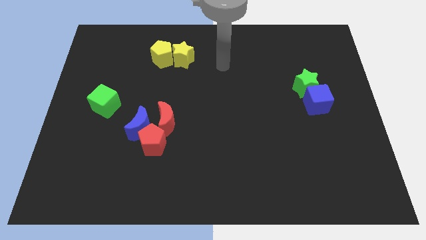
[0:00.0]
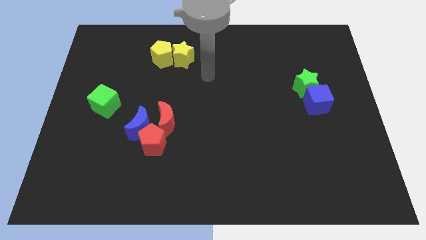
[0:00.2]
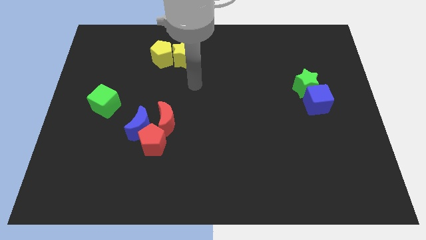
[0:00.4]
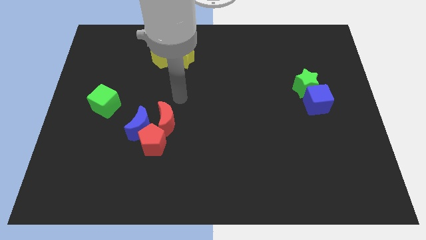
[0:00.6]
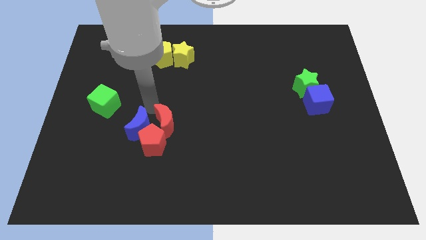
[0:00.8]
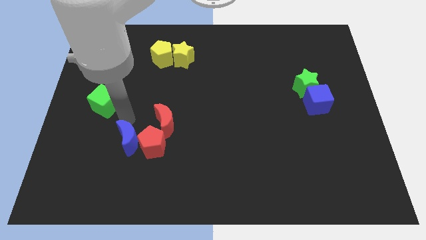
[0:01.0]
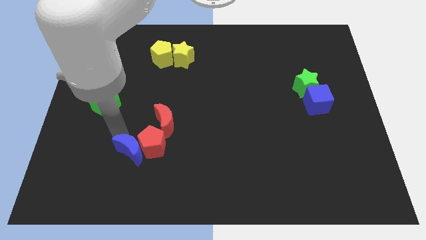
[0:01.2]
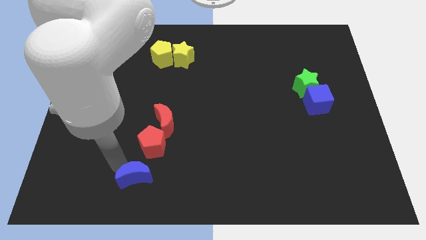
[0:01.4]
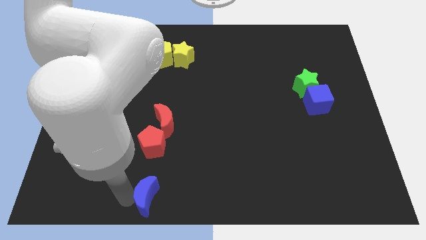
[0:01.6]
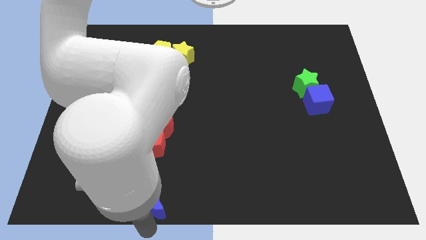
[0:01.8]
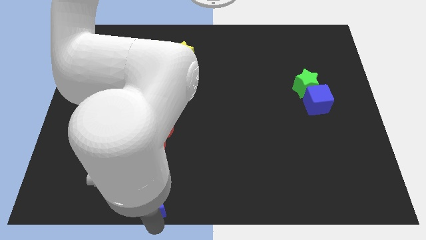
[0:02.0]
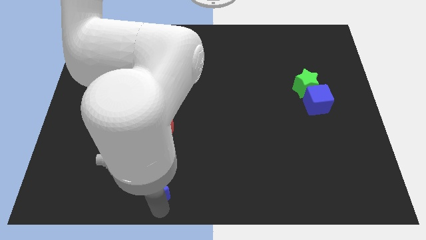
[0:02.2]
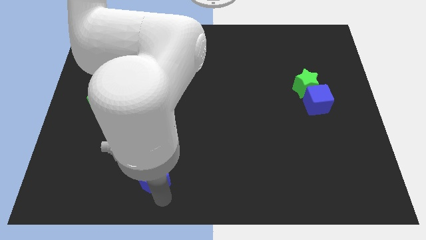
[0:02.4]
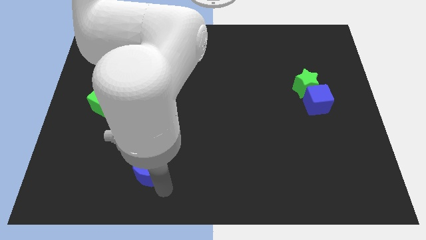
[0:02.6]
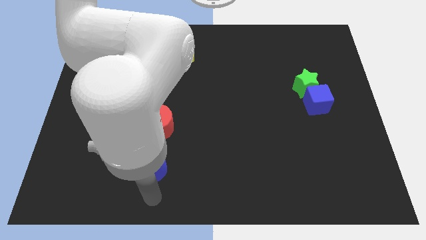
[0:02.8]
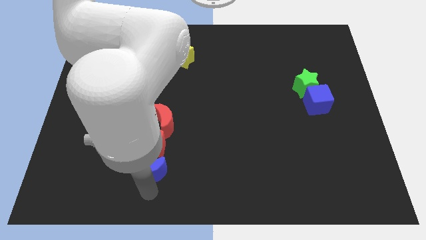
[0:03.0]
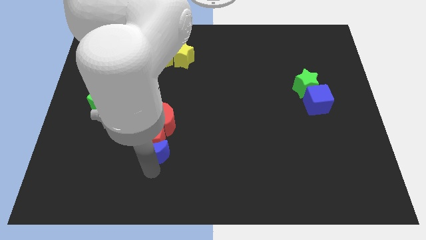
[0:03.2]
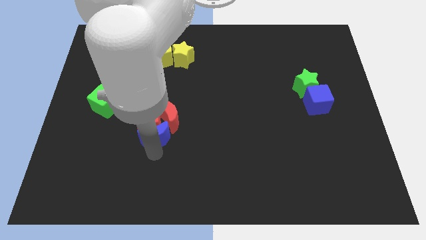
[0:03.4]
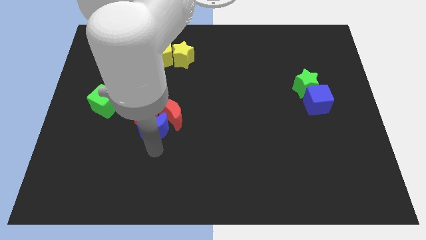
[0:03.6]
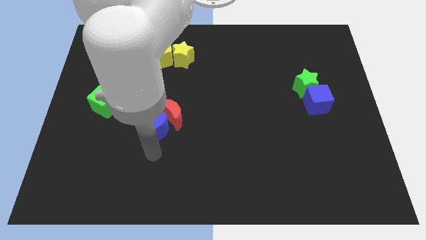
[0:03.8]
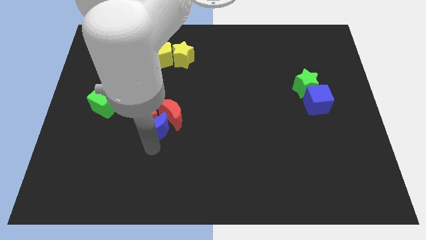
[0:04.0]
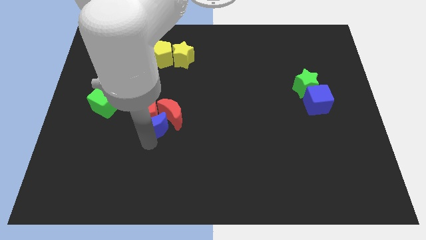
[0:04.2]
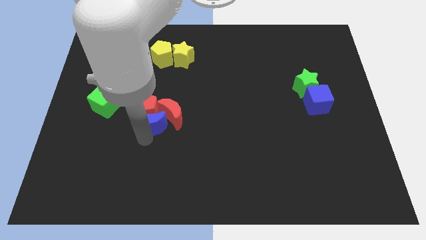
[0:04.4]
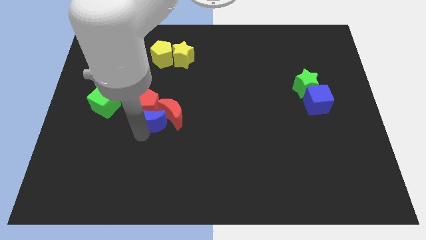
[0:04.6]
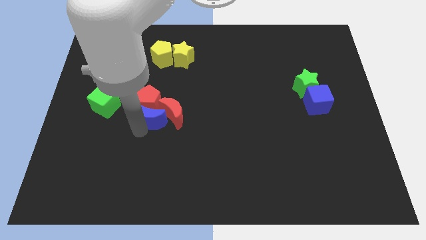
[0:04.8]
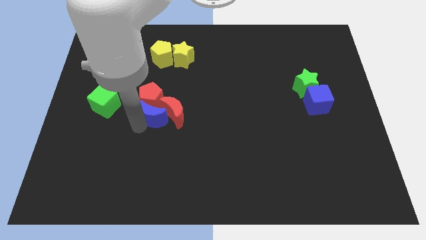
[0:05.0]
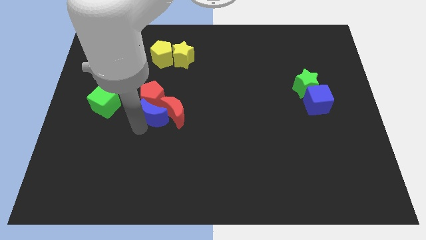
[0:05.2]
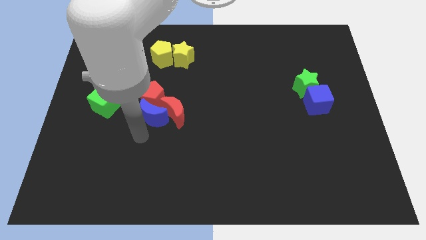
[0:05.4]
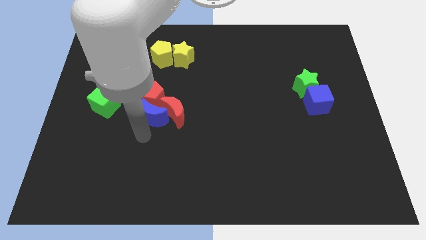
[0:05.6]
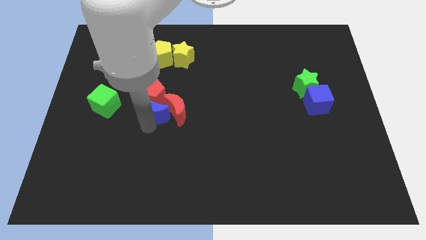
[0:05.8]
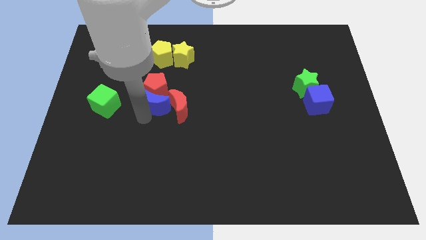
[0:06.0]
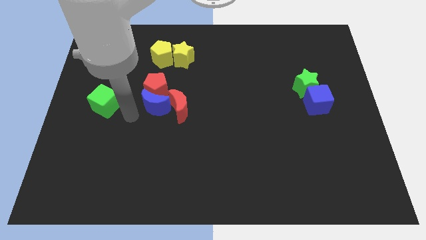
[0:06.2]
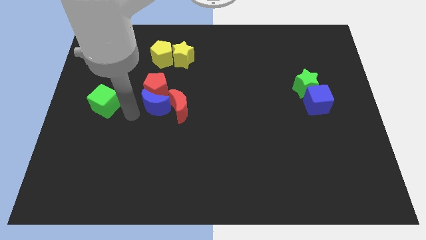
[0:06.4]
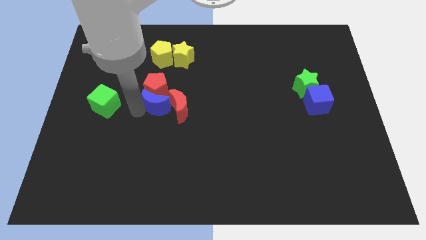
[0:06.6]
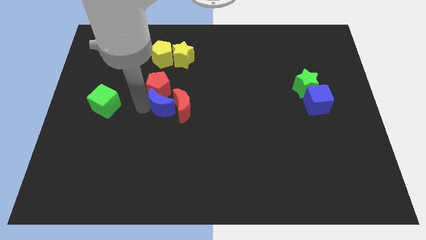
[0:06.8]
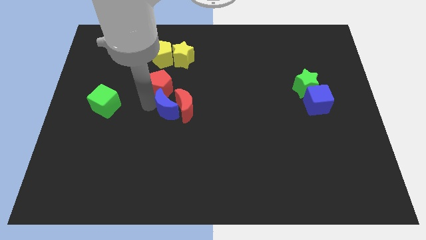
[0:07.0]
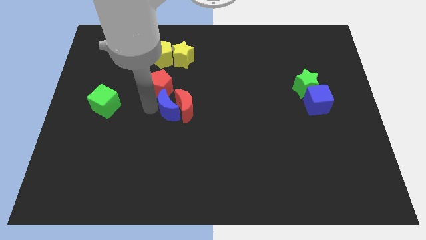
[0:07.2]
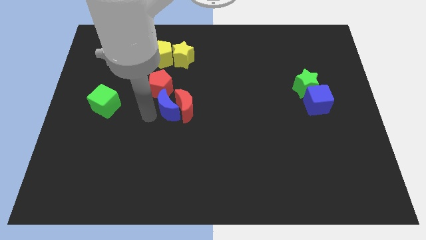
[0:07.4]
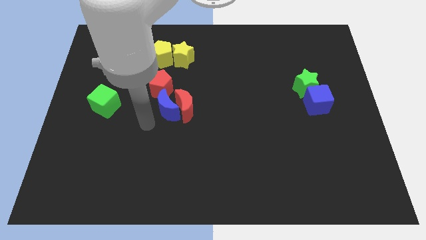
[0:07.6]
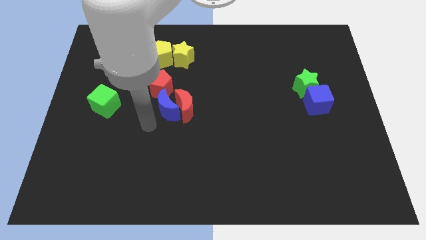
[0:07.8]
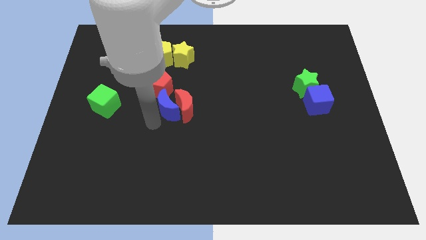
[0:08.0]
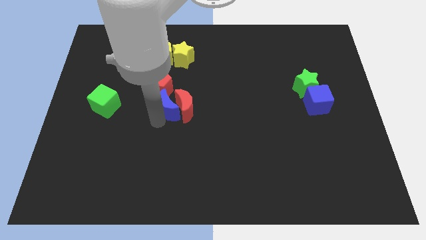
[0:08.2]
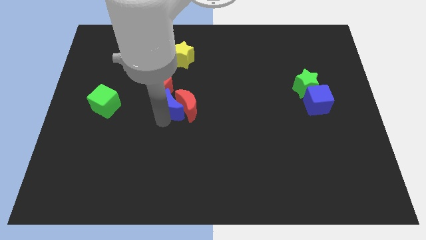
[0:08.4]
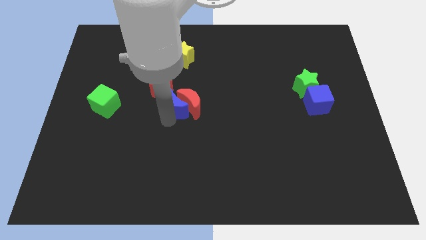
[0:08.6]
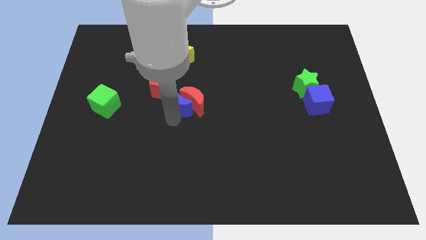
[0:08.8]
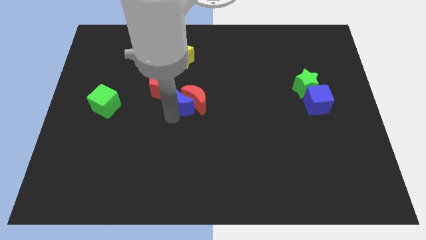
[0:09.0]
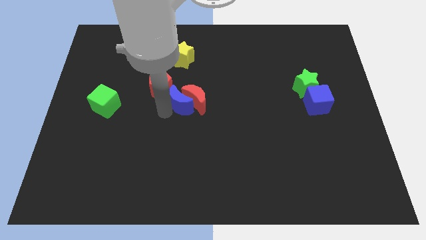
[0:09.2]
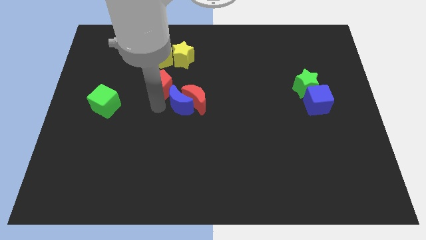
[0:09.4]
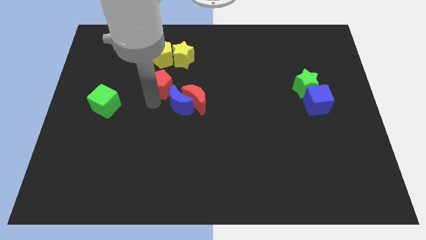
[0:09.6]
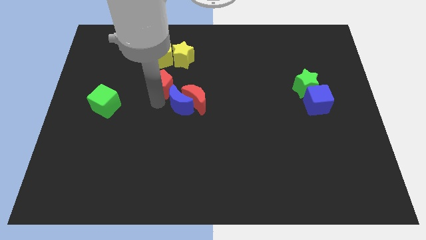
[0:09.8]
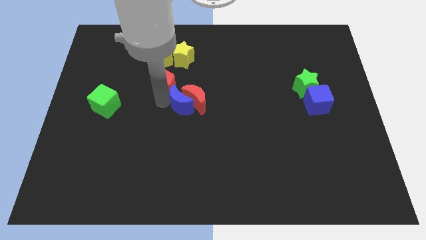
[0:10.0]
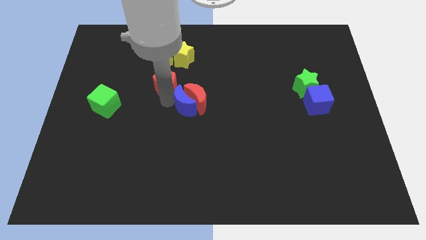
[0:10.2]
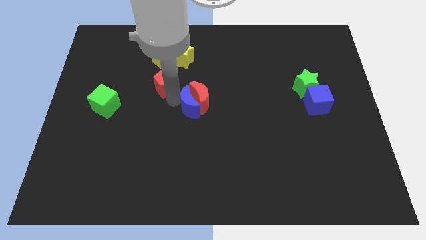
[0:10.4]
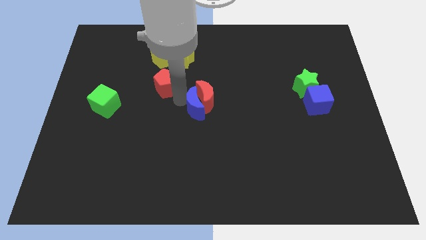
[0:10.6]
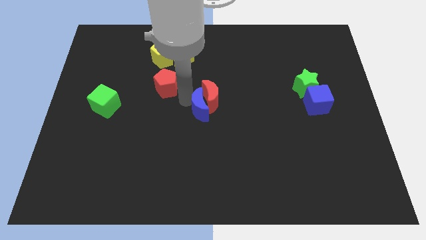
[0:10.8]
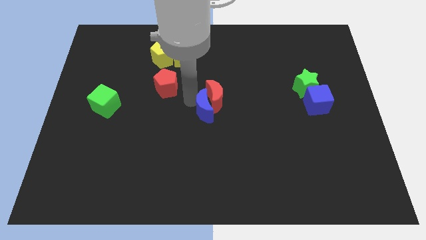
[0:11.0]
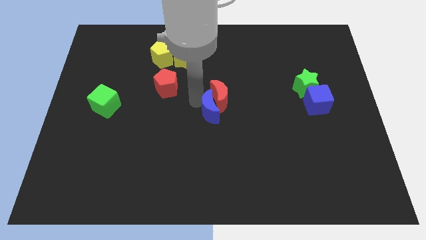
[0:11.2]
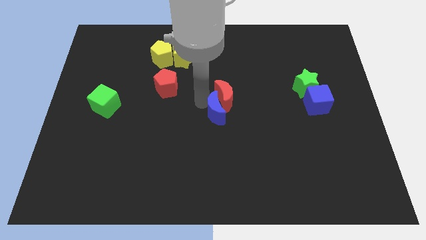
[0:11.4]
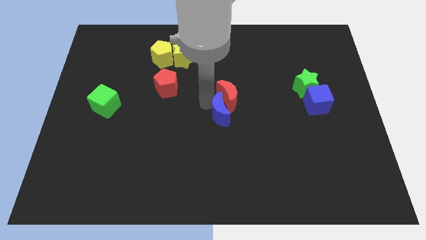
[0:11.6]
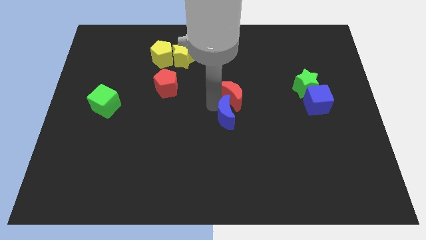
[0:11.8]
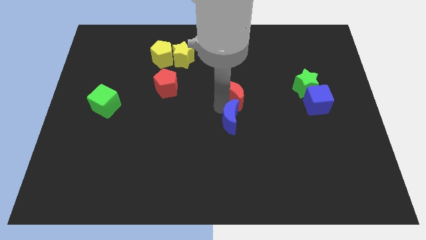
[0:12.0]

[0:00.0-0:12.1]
slide the blue moon to the right

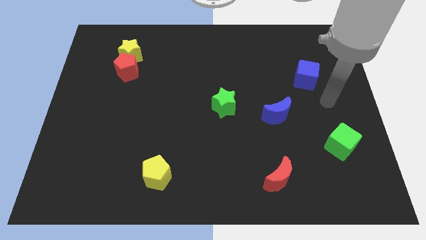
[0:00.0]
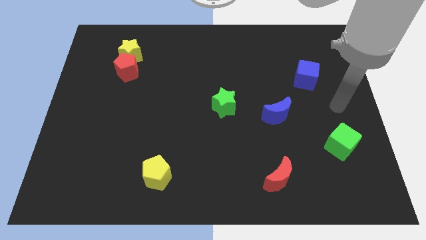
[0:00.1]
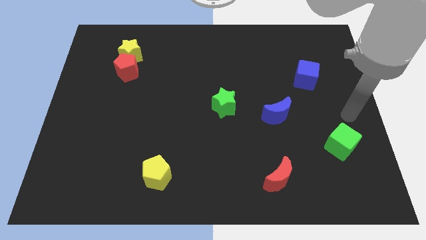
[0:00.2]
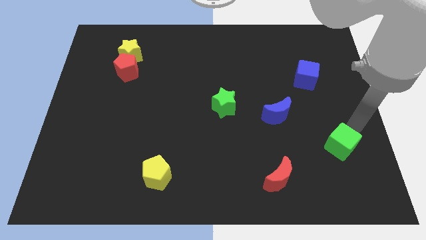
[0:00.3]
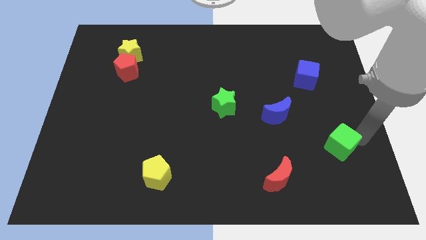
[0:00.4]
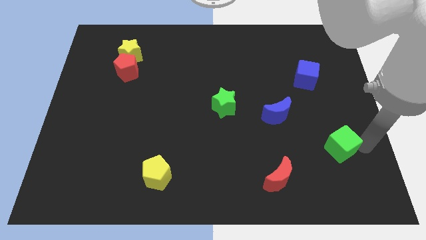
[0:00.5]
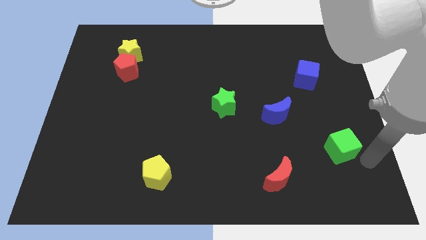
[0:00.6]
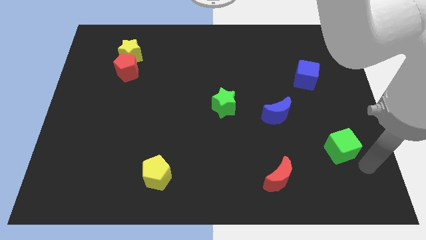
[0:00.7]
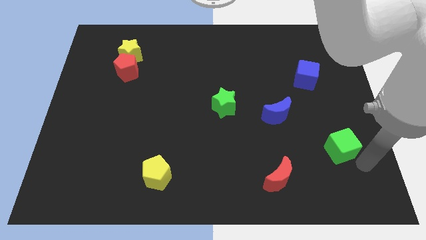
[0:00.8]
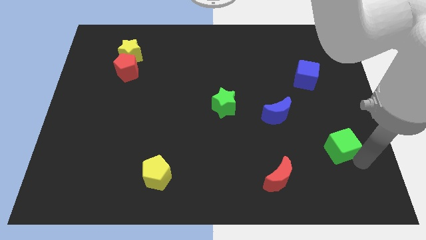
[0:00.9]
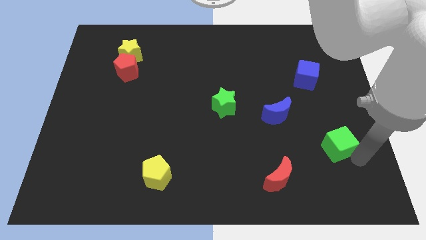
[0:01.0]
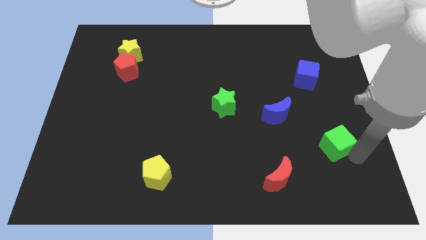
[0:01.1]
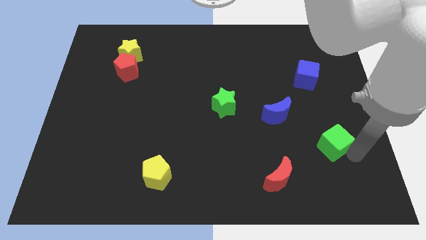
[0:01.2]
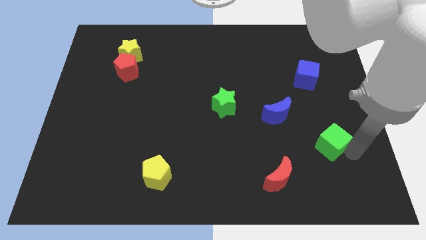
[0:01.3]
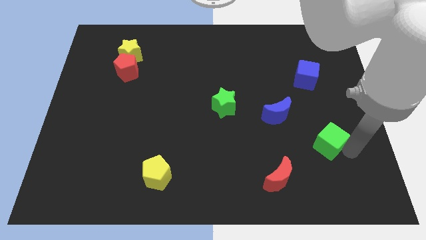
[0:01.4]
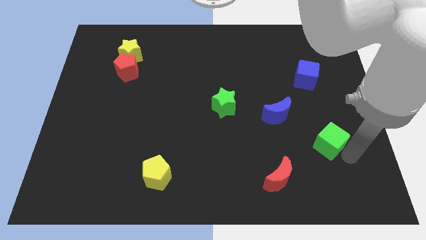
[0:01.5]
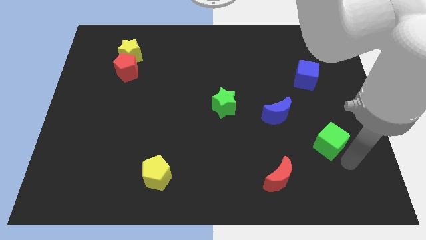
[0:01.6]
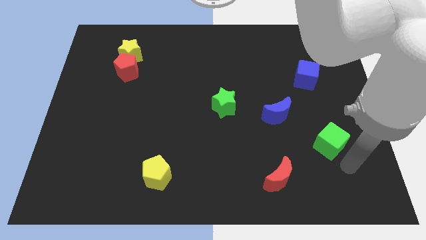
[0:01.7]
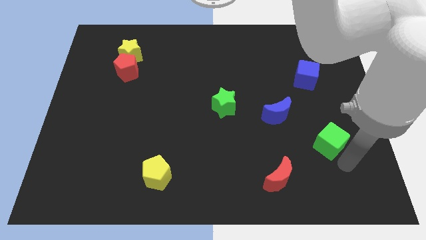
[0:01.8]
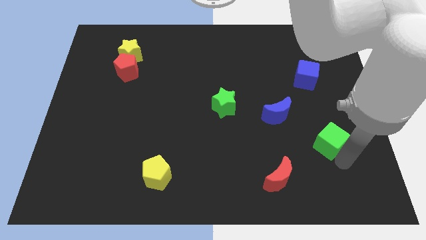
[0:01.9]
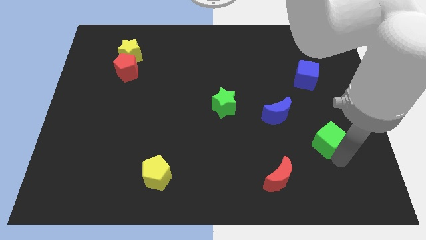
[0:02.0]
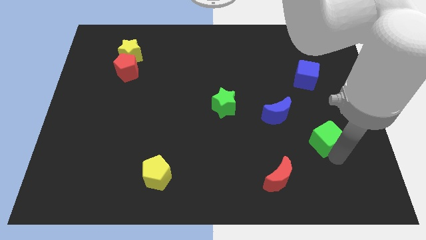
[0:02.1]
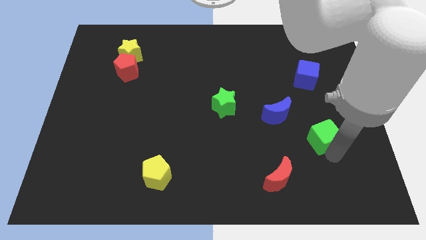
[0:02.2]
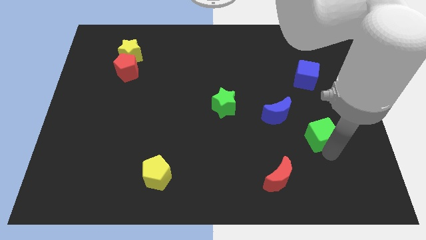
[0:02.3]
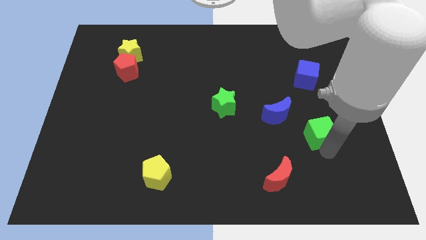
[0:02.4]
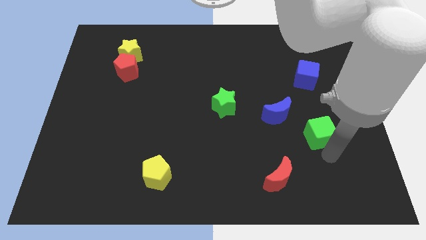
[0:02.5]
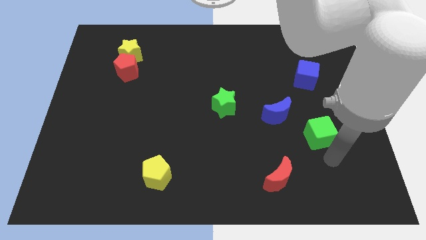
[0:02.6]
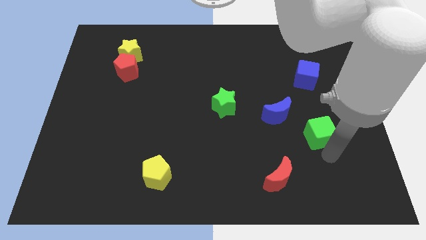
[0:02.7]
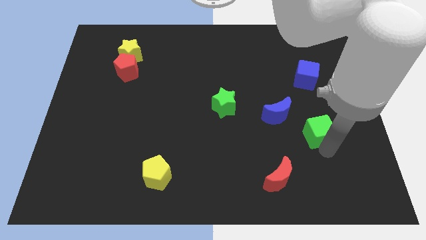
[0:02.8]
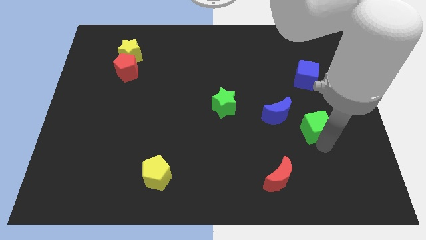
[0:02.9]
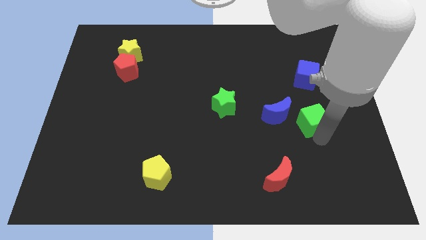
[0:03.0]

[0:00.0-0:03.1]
slightly slide the green cube upwards and left diagonally
